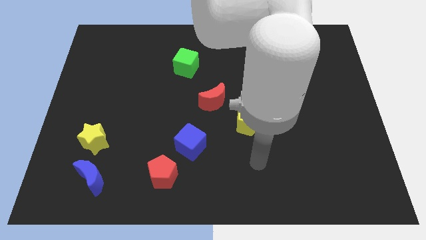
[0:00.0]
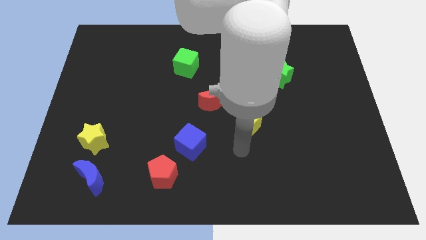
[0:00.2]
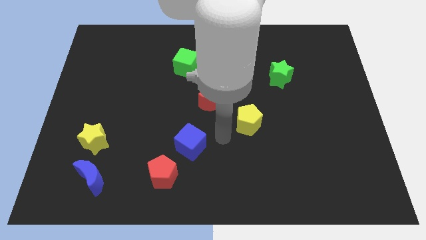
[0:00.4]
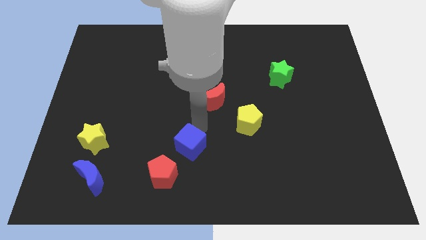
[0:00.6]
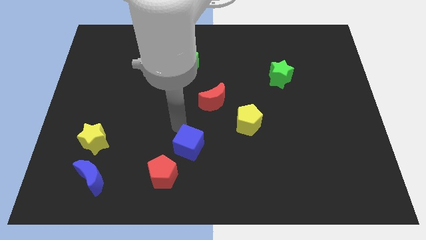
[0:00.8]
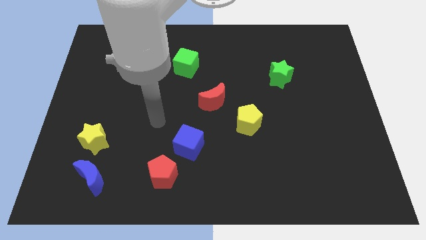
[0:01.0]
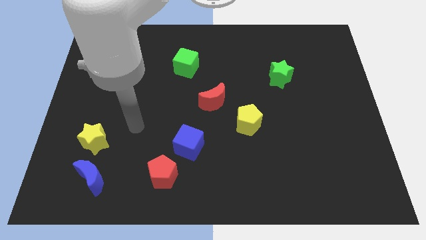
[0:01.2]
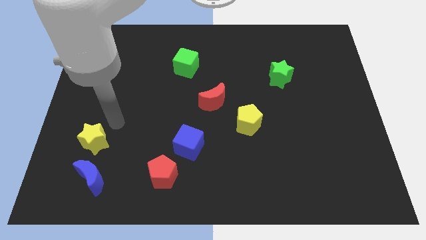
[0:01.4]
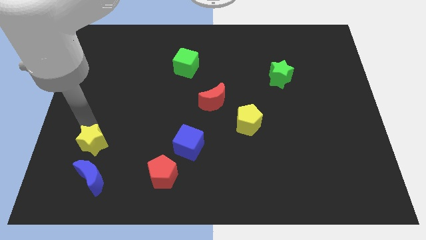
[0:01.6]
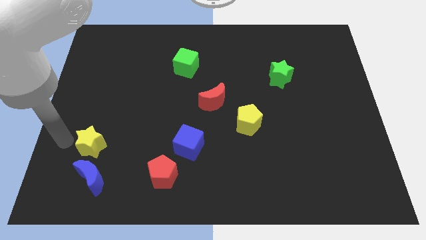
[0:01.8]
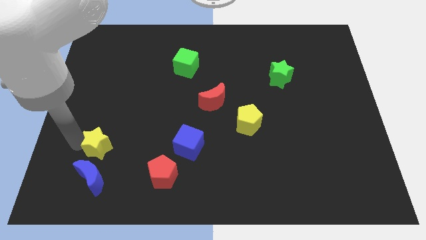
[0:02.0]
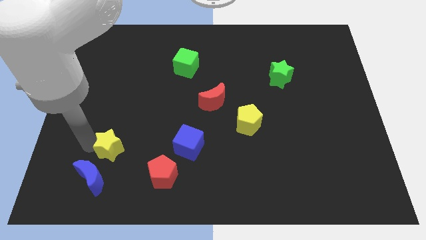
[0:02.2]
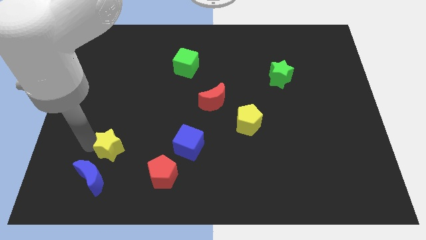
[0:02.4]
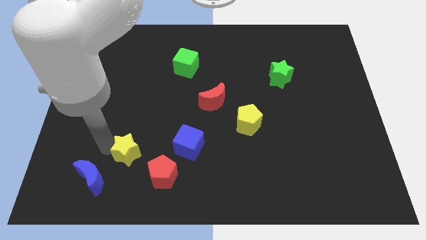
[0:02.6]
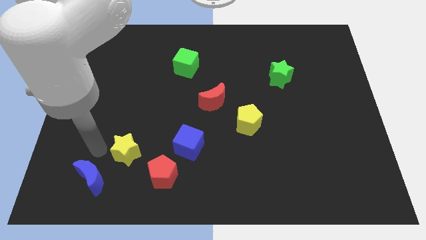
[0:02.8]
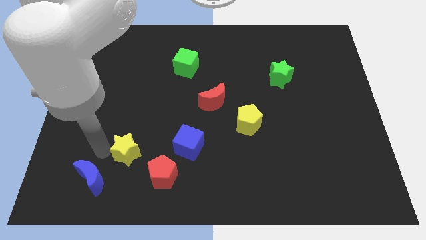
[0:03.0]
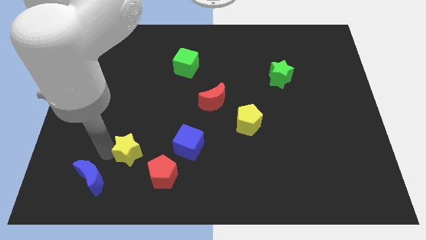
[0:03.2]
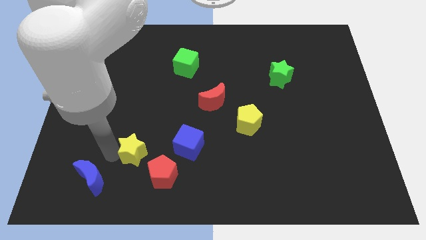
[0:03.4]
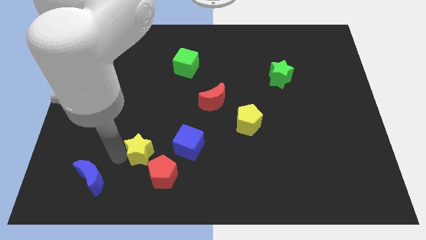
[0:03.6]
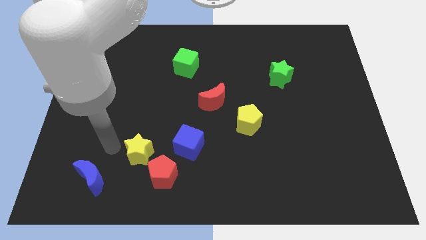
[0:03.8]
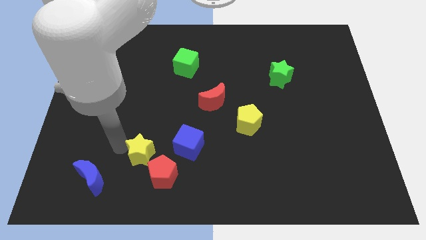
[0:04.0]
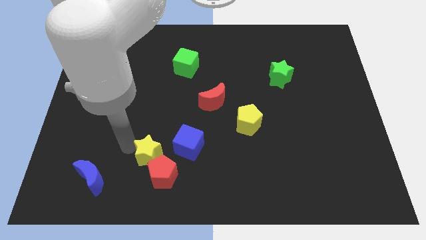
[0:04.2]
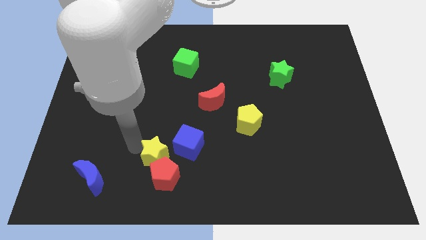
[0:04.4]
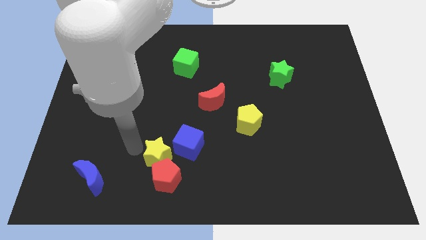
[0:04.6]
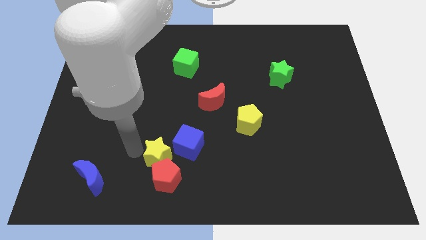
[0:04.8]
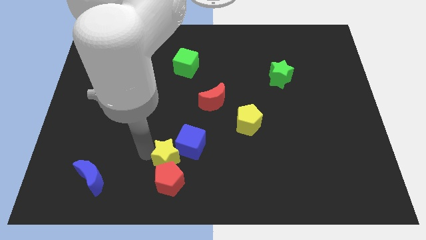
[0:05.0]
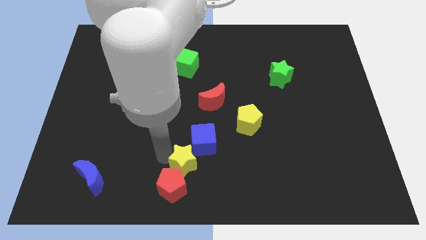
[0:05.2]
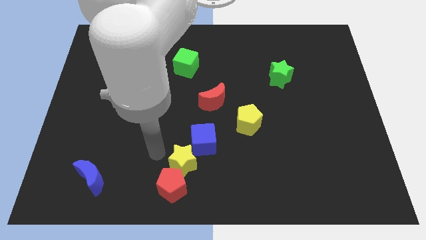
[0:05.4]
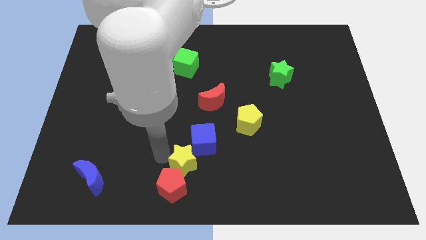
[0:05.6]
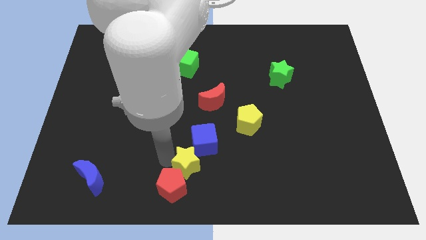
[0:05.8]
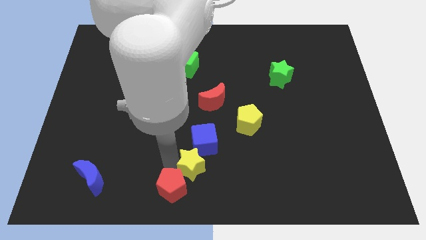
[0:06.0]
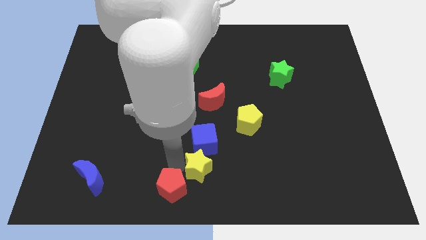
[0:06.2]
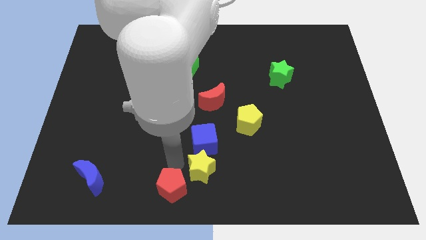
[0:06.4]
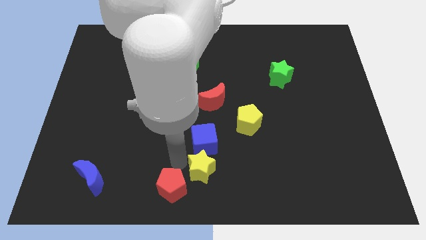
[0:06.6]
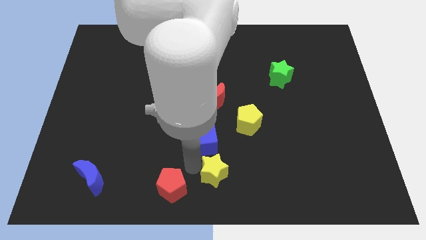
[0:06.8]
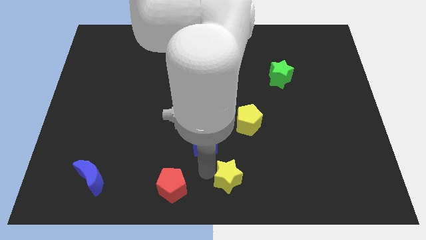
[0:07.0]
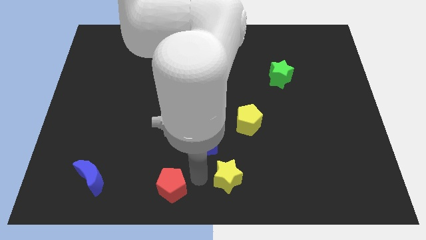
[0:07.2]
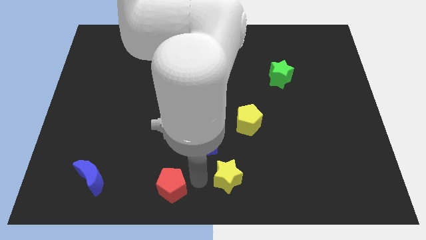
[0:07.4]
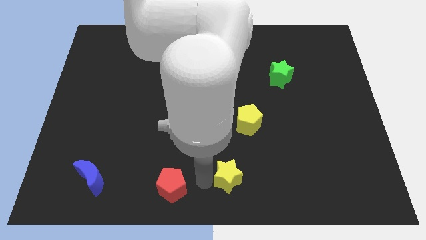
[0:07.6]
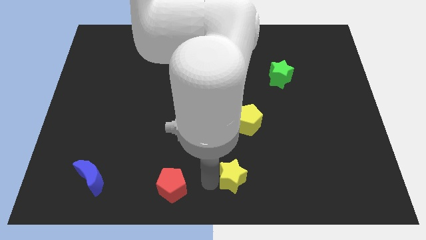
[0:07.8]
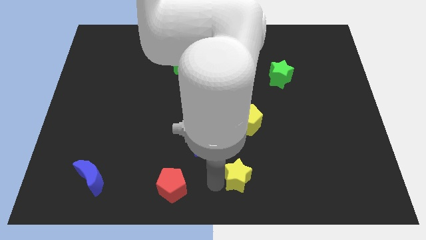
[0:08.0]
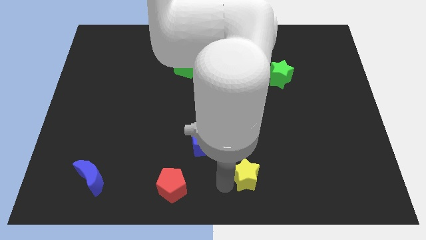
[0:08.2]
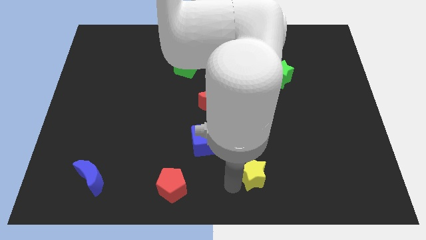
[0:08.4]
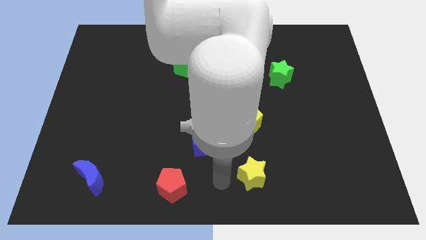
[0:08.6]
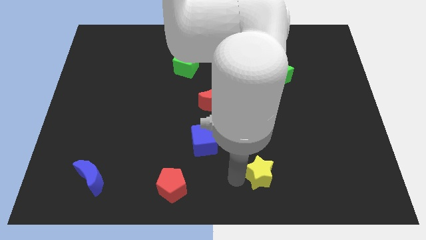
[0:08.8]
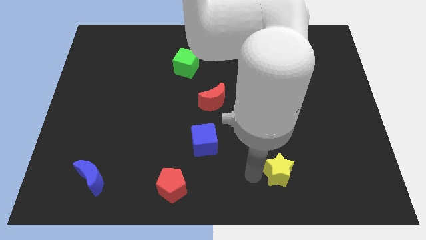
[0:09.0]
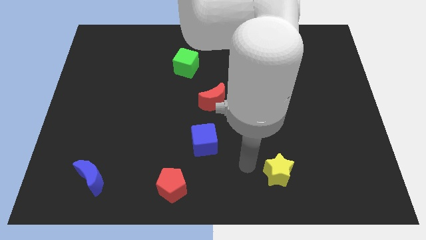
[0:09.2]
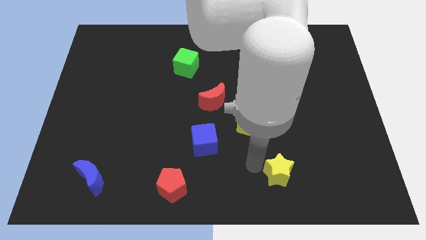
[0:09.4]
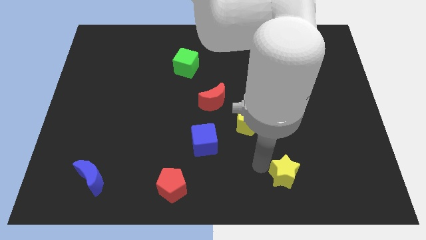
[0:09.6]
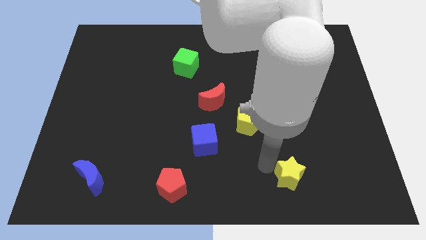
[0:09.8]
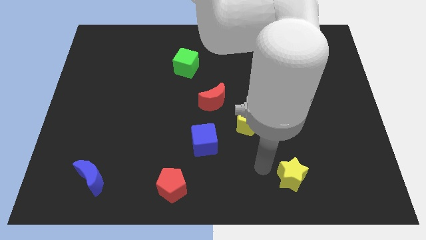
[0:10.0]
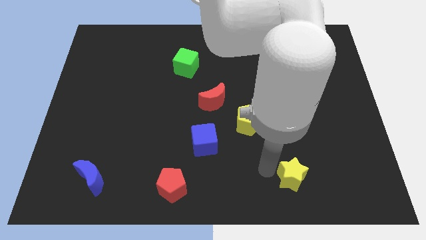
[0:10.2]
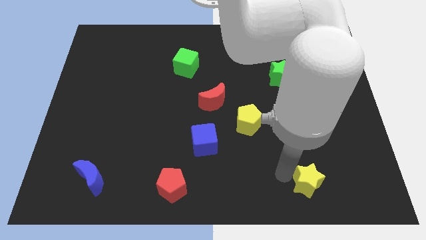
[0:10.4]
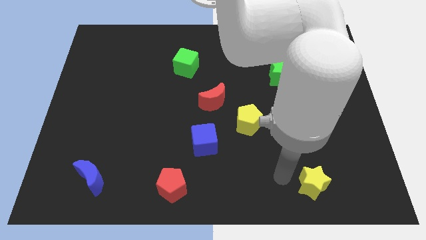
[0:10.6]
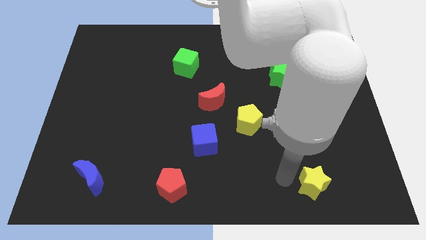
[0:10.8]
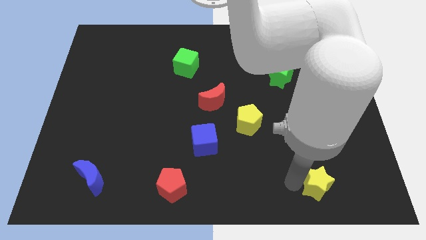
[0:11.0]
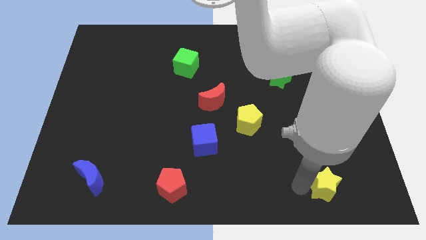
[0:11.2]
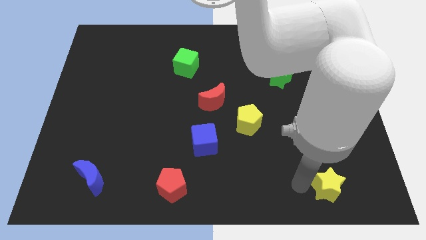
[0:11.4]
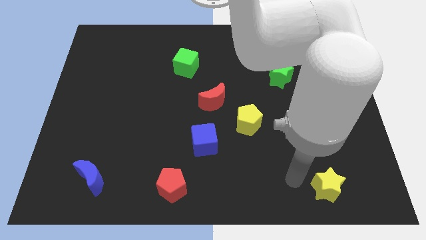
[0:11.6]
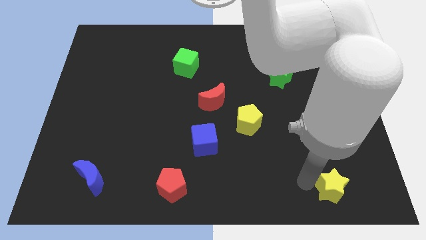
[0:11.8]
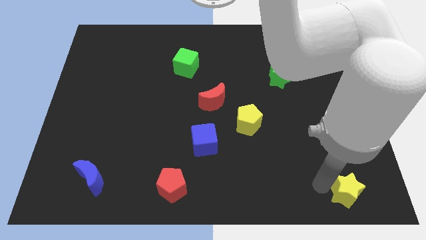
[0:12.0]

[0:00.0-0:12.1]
slide the yellow star to the bottom right corner
